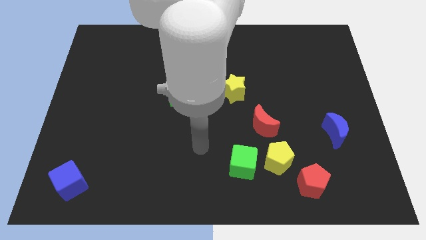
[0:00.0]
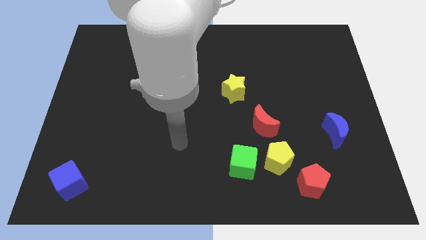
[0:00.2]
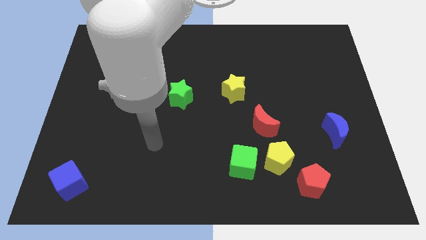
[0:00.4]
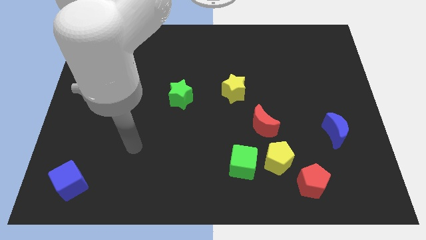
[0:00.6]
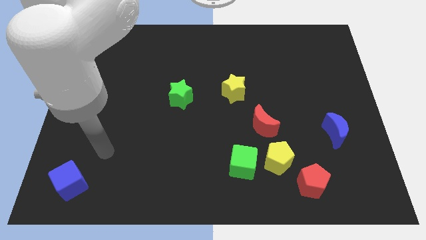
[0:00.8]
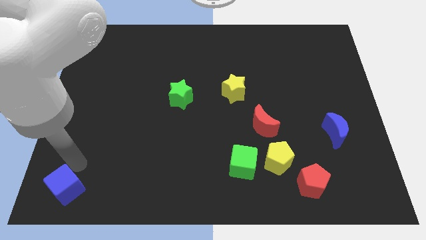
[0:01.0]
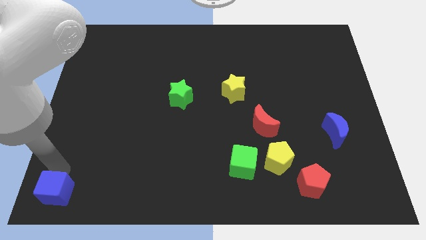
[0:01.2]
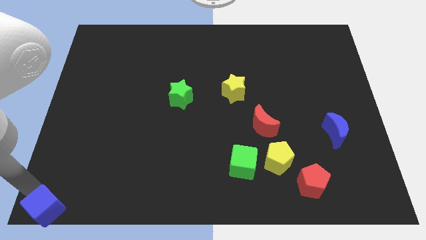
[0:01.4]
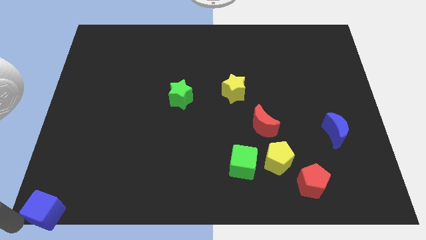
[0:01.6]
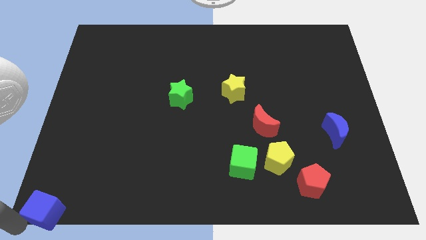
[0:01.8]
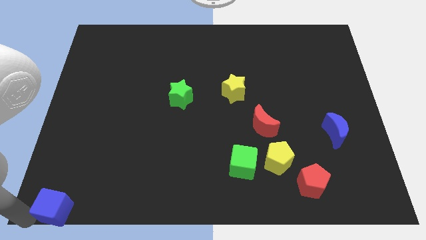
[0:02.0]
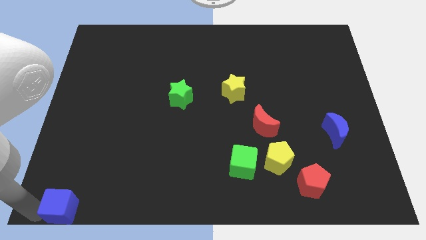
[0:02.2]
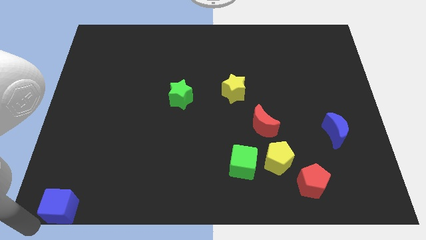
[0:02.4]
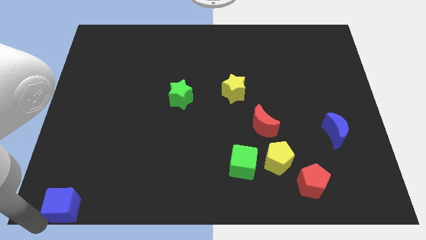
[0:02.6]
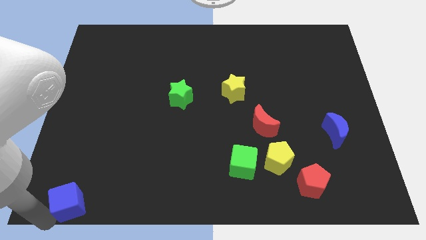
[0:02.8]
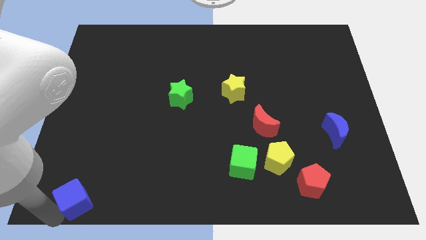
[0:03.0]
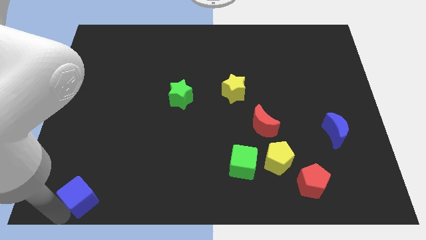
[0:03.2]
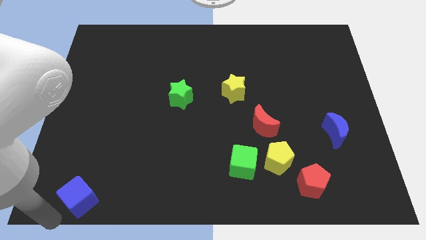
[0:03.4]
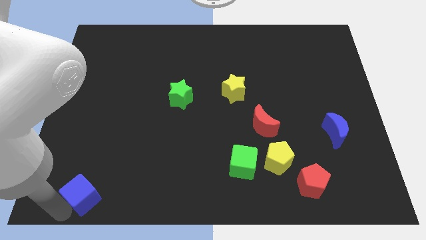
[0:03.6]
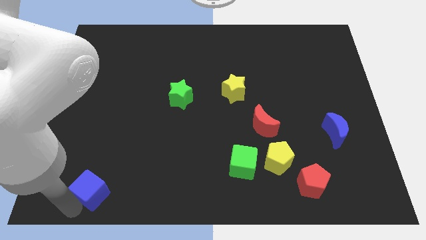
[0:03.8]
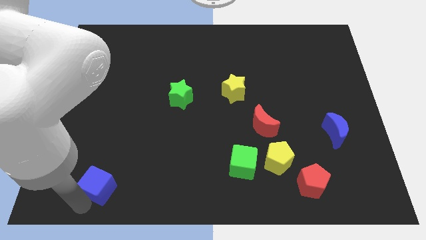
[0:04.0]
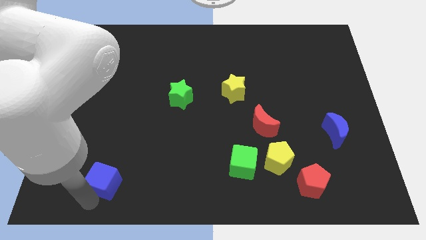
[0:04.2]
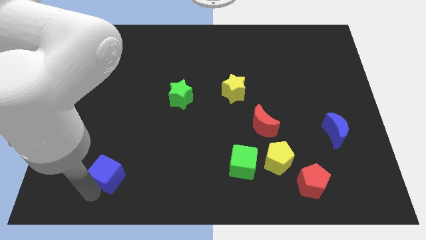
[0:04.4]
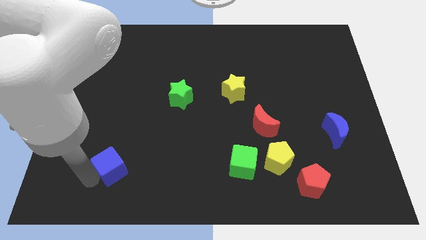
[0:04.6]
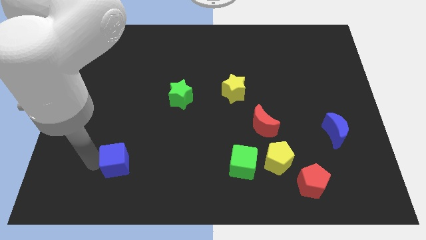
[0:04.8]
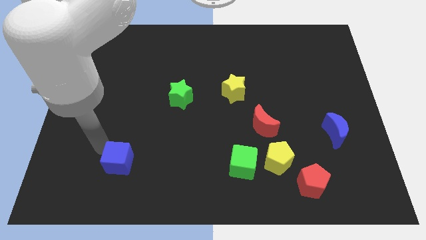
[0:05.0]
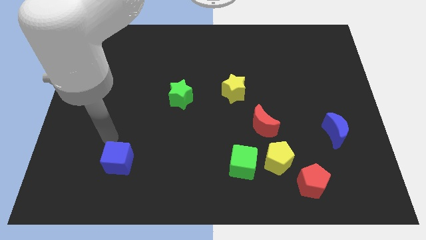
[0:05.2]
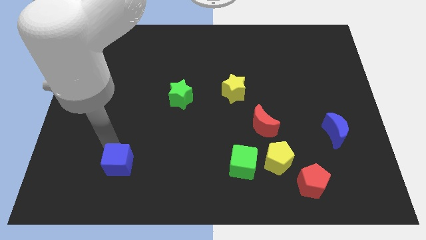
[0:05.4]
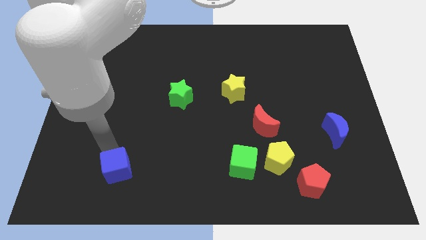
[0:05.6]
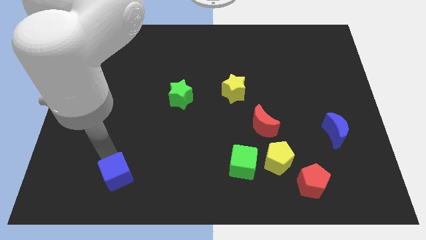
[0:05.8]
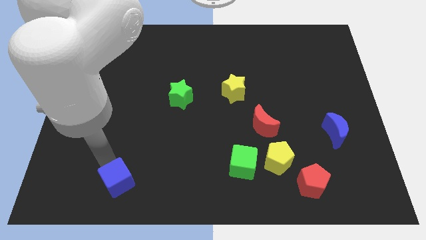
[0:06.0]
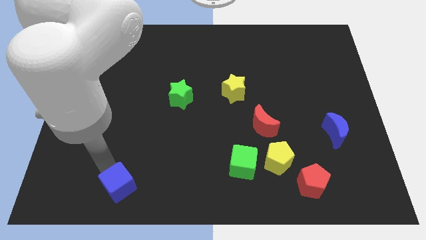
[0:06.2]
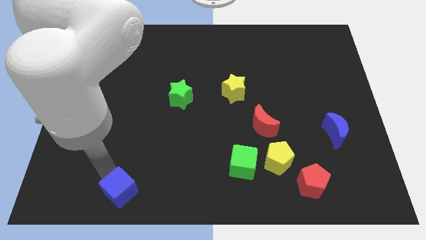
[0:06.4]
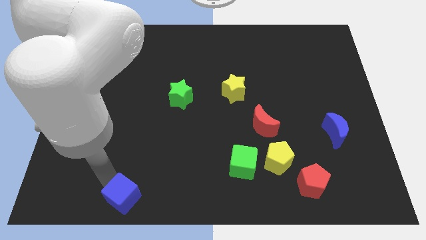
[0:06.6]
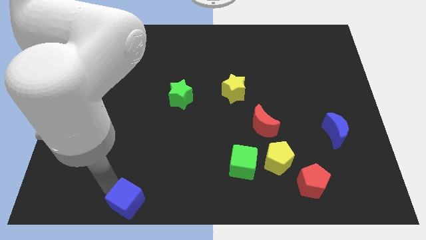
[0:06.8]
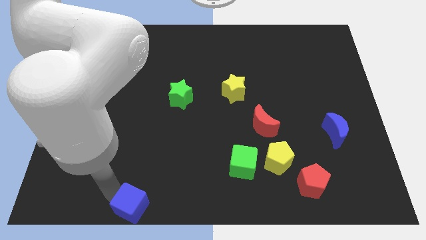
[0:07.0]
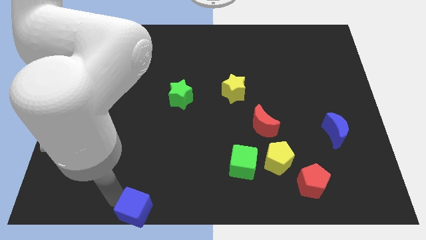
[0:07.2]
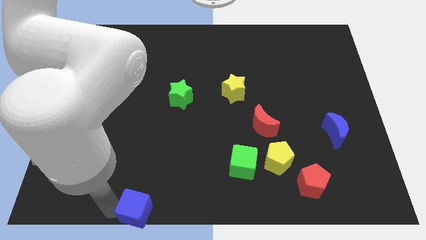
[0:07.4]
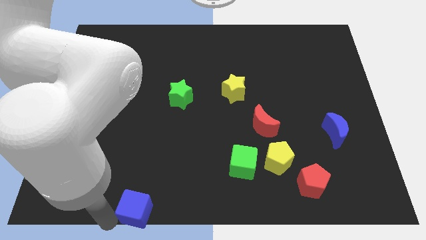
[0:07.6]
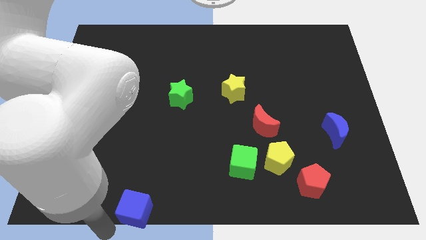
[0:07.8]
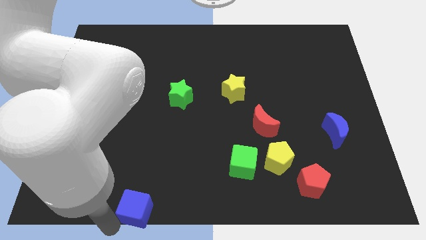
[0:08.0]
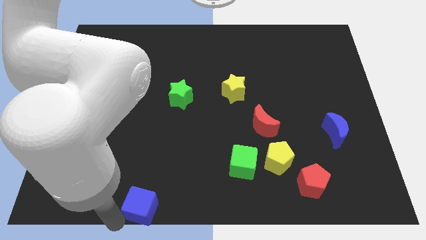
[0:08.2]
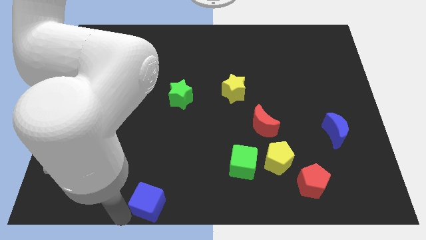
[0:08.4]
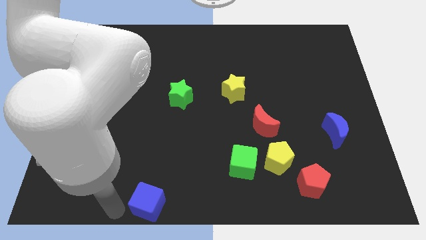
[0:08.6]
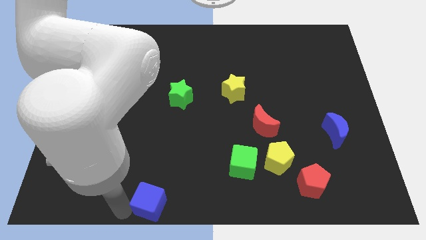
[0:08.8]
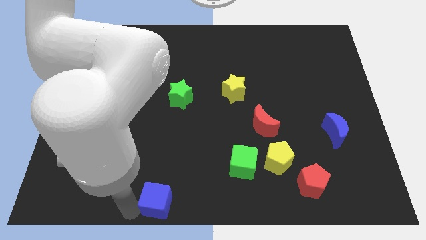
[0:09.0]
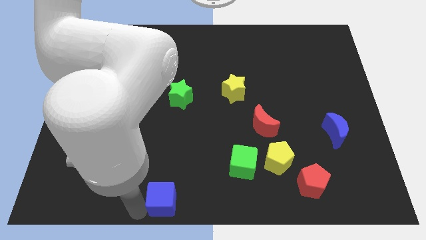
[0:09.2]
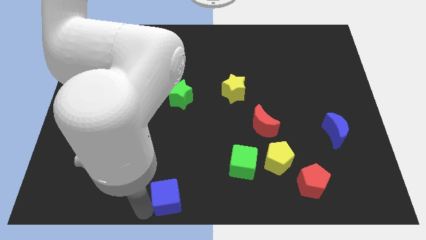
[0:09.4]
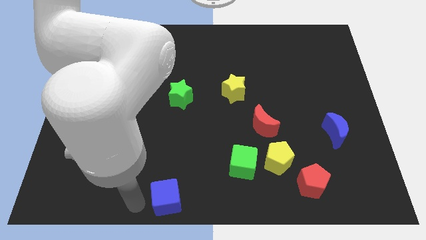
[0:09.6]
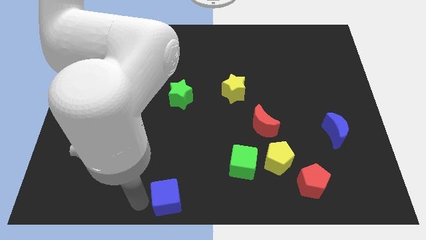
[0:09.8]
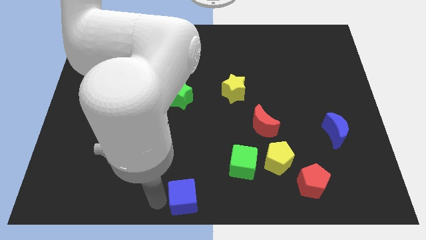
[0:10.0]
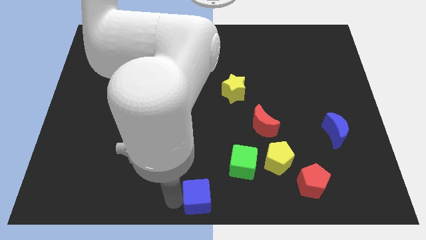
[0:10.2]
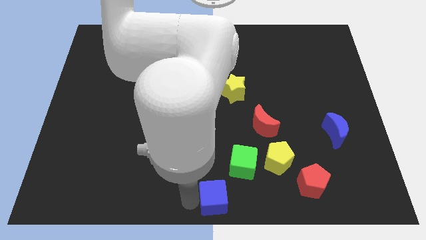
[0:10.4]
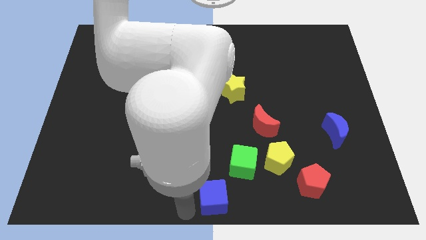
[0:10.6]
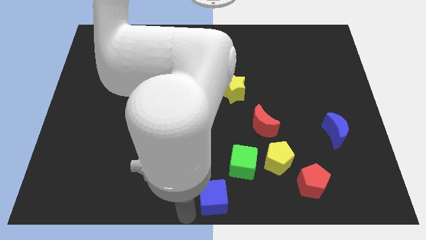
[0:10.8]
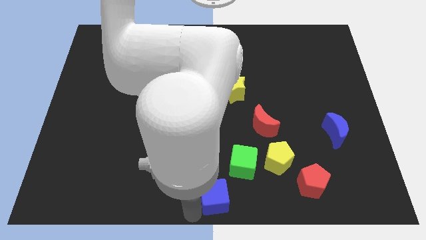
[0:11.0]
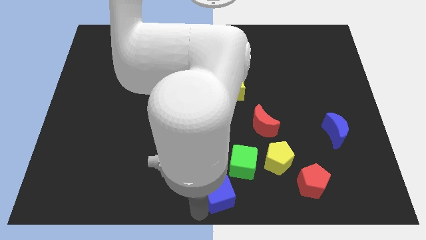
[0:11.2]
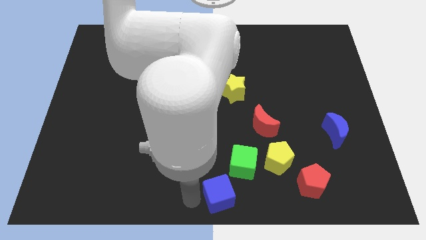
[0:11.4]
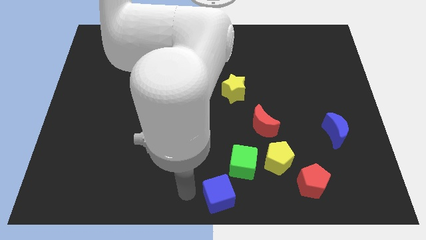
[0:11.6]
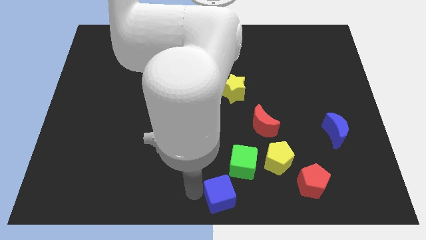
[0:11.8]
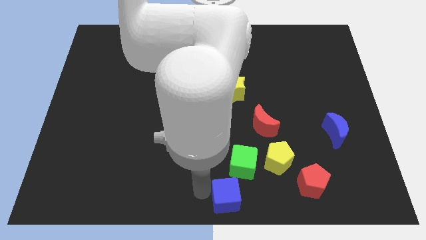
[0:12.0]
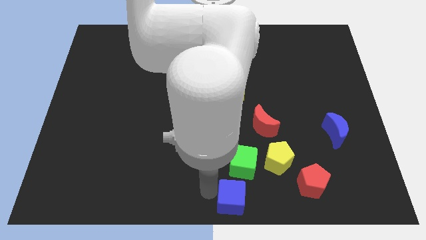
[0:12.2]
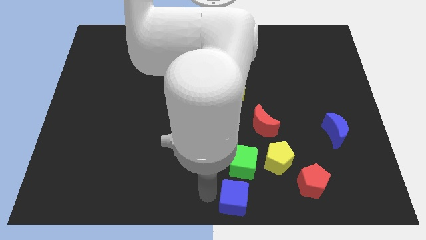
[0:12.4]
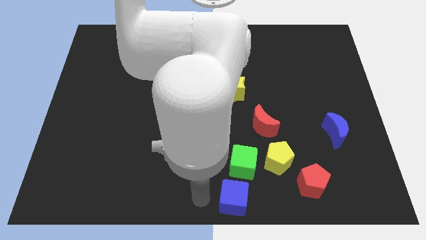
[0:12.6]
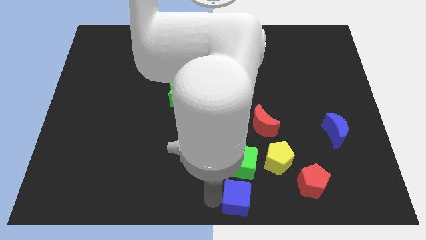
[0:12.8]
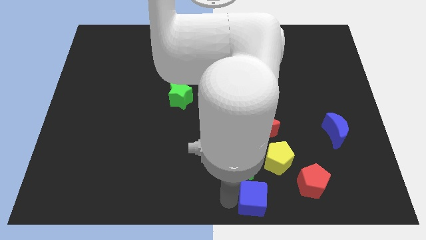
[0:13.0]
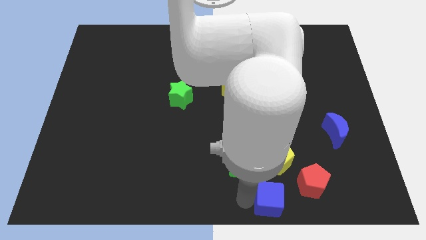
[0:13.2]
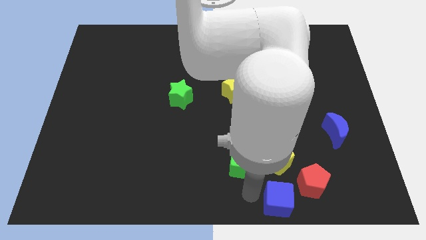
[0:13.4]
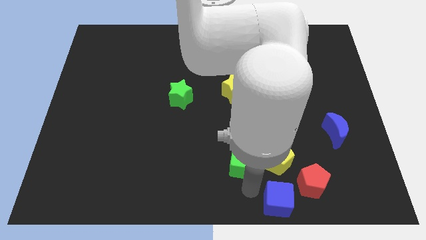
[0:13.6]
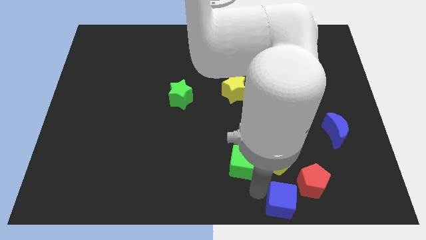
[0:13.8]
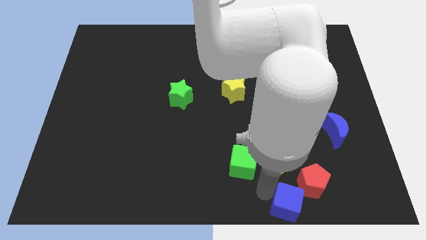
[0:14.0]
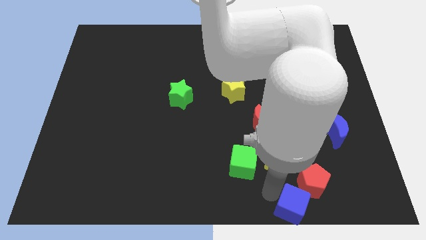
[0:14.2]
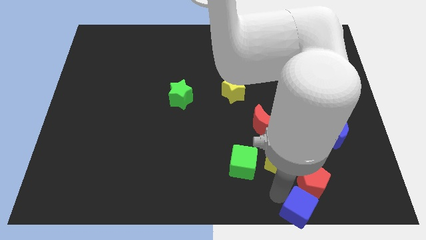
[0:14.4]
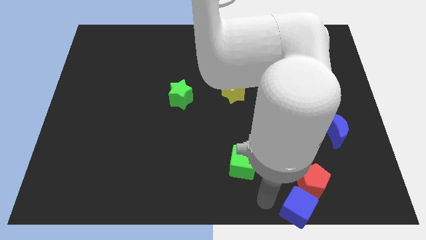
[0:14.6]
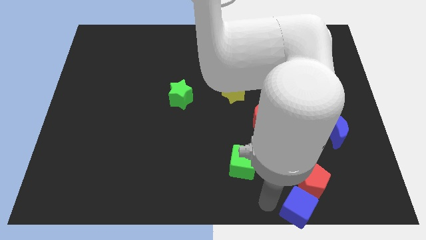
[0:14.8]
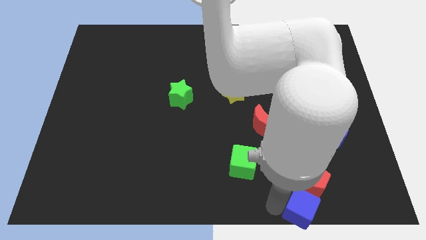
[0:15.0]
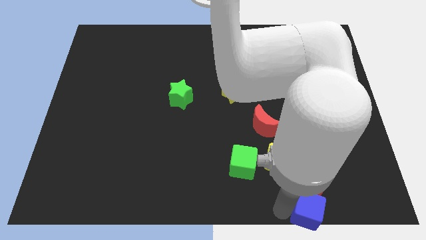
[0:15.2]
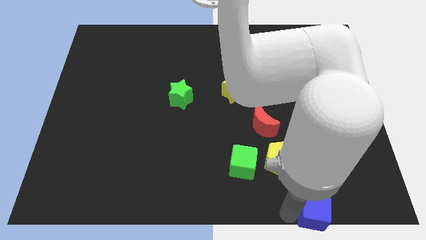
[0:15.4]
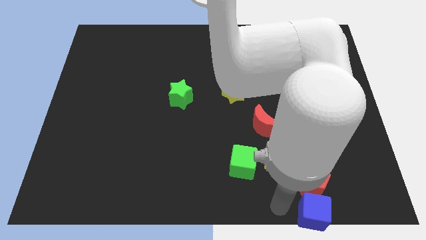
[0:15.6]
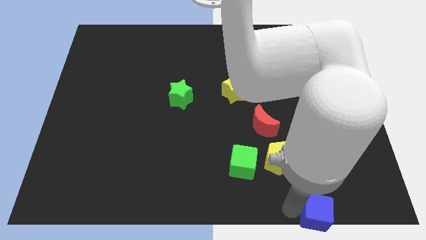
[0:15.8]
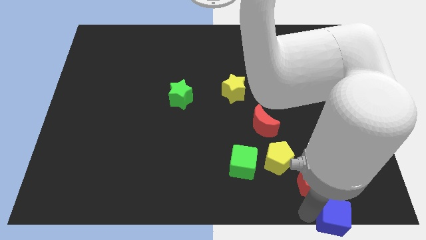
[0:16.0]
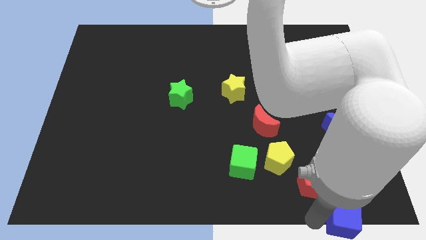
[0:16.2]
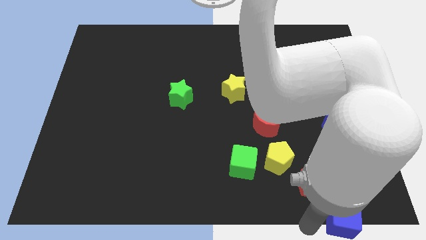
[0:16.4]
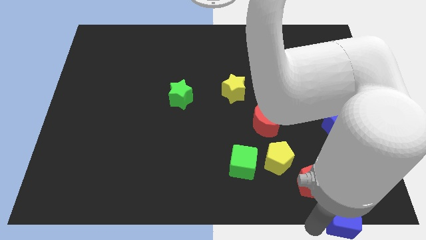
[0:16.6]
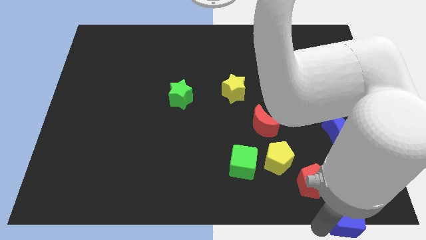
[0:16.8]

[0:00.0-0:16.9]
push the blue cube to the bottom right
